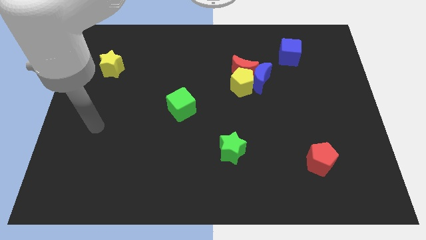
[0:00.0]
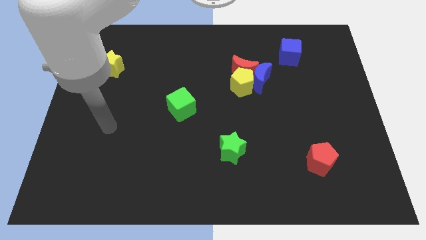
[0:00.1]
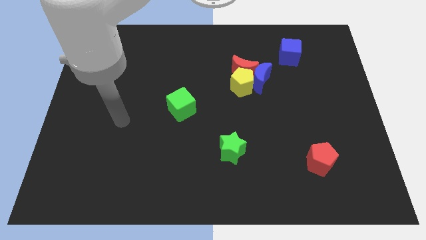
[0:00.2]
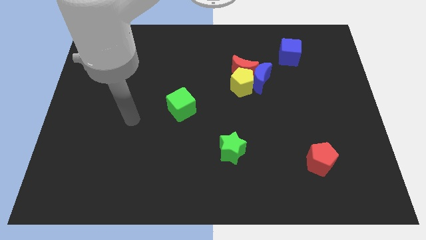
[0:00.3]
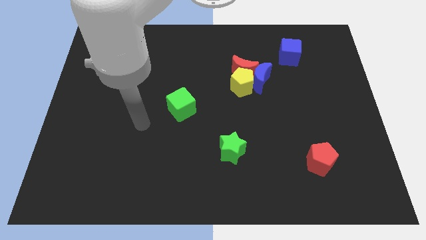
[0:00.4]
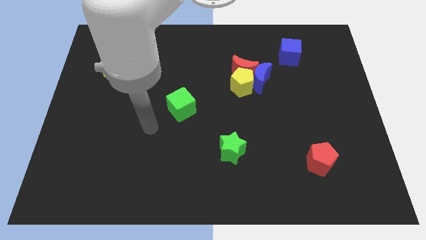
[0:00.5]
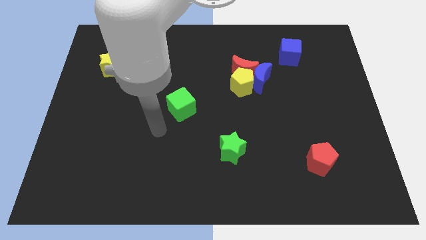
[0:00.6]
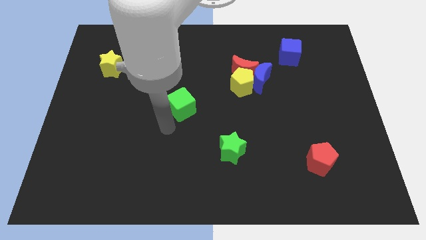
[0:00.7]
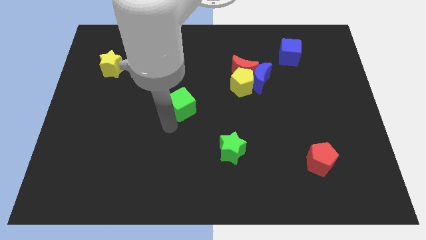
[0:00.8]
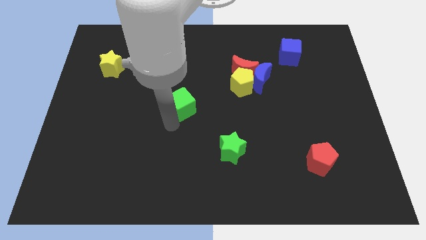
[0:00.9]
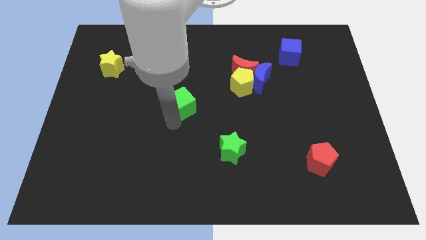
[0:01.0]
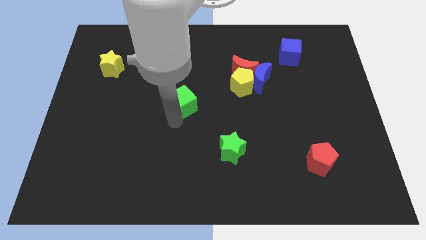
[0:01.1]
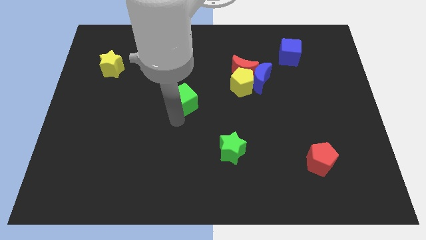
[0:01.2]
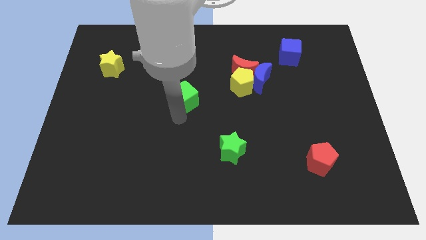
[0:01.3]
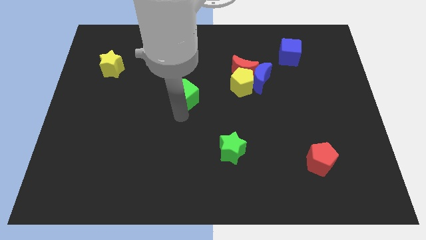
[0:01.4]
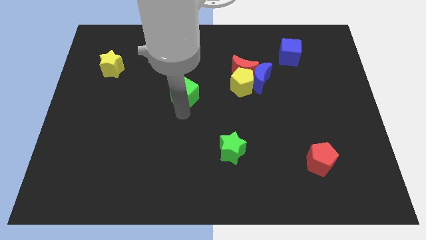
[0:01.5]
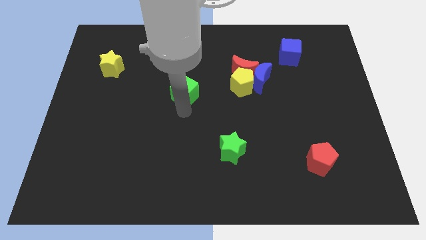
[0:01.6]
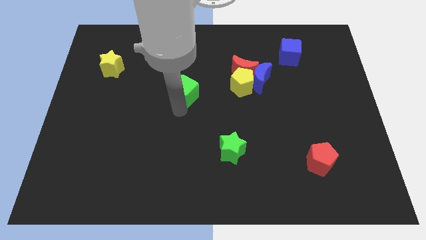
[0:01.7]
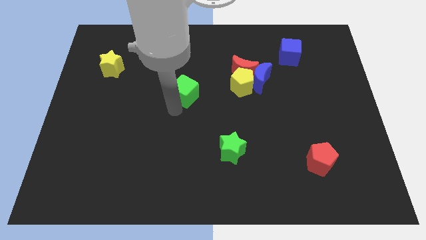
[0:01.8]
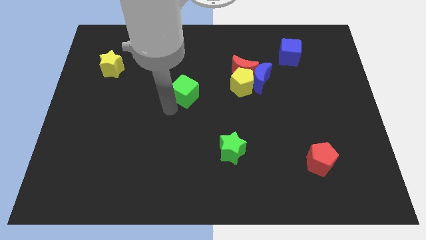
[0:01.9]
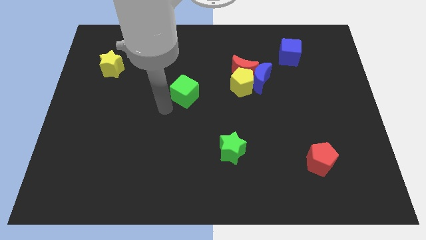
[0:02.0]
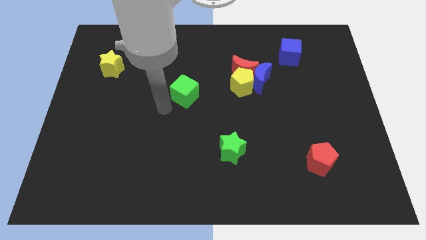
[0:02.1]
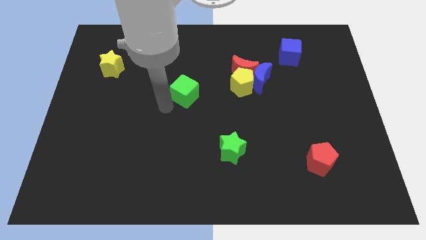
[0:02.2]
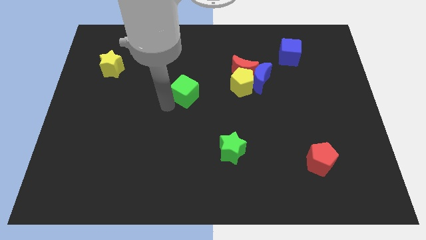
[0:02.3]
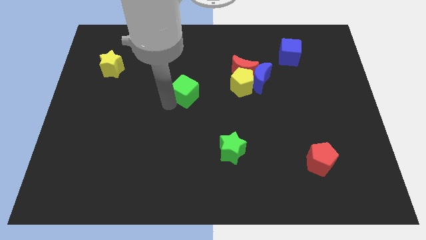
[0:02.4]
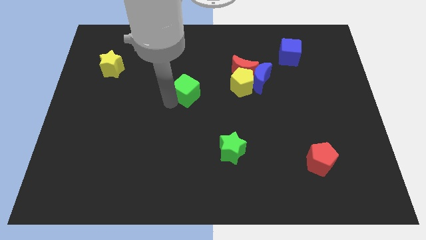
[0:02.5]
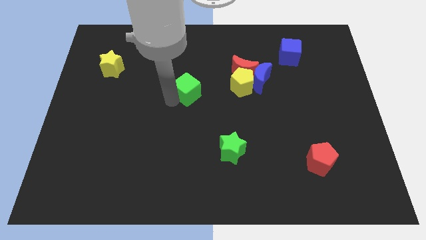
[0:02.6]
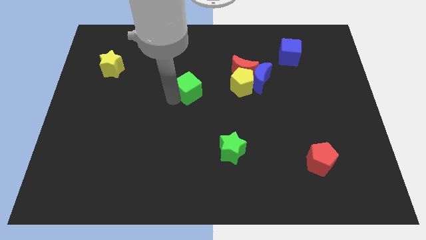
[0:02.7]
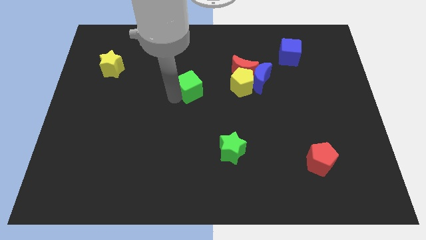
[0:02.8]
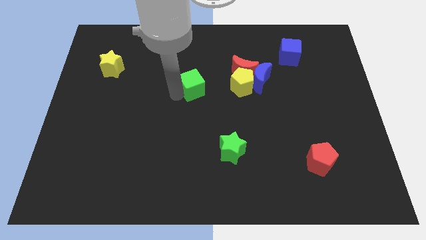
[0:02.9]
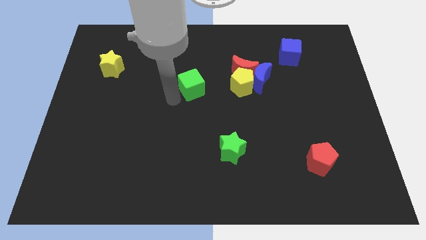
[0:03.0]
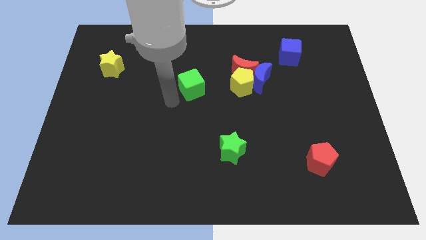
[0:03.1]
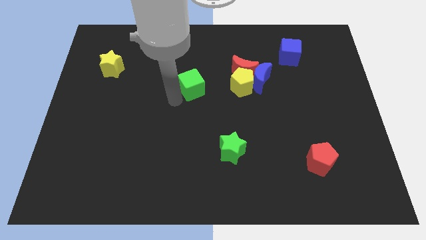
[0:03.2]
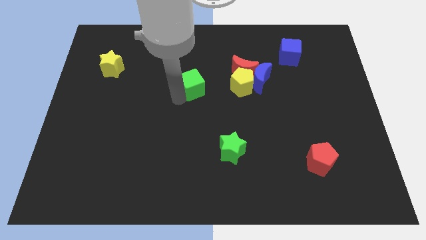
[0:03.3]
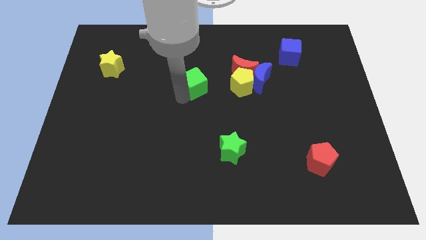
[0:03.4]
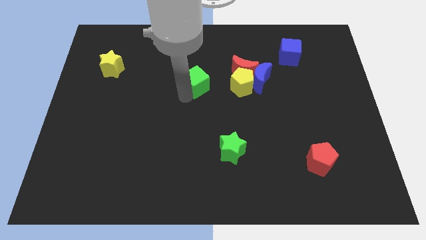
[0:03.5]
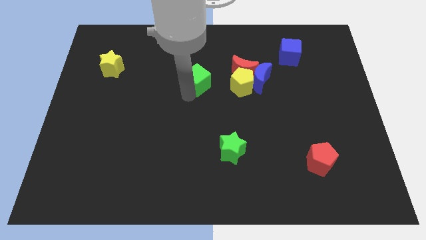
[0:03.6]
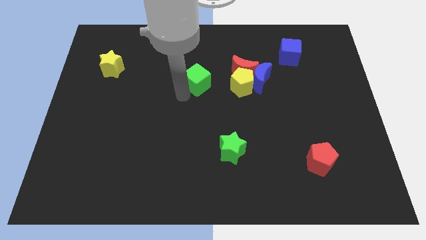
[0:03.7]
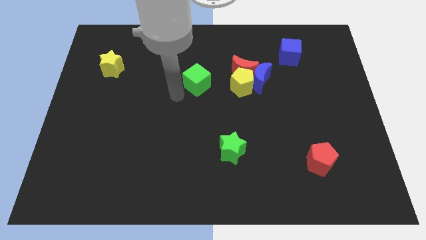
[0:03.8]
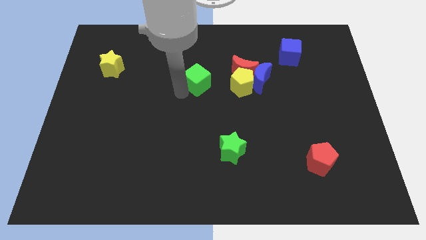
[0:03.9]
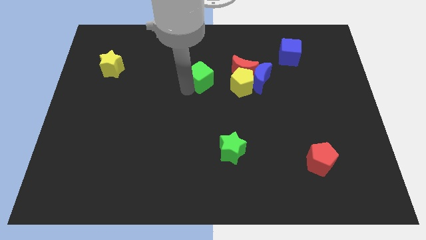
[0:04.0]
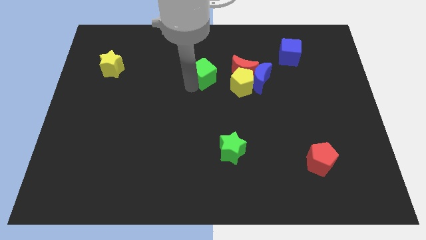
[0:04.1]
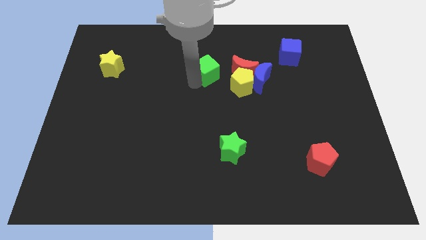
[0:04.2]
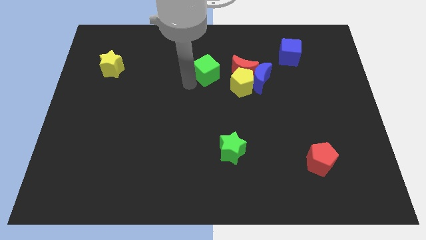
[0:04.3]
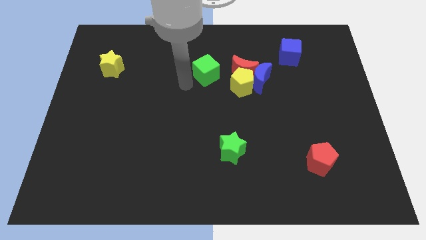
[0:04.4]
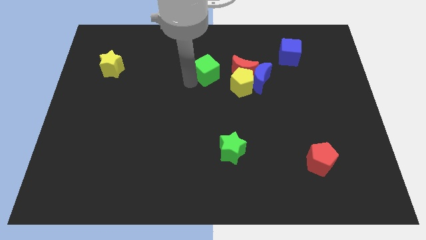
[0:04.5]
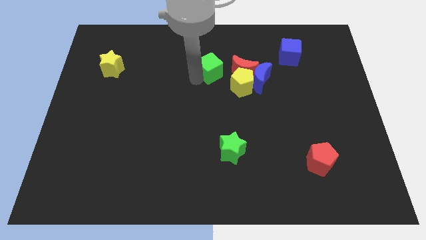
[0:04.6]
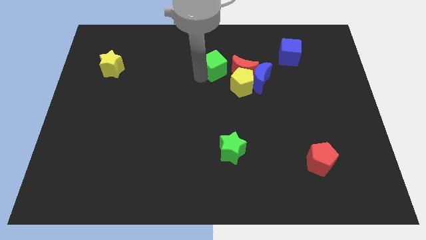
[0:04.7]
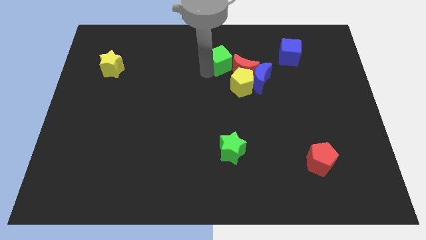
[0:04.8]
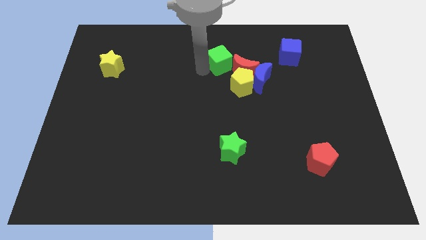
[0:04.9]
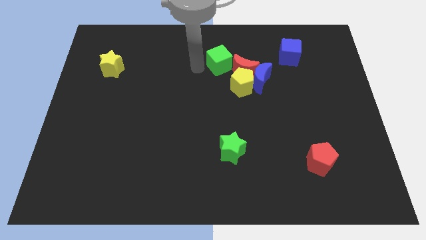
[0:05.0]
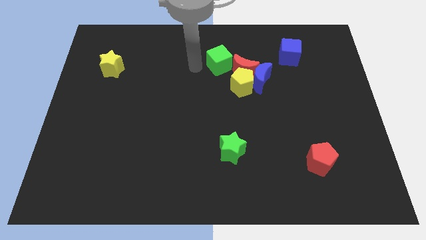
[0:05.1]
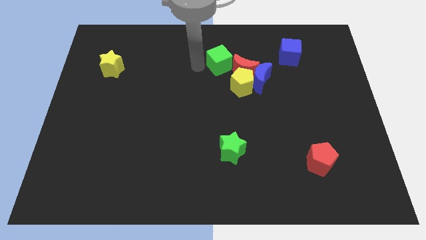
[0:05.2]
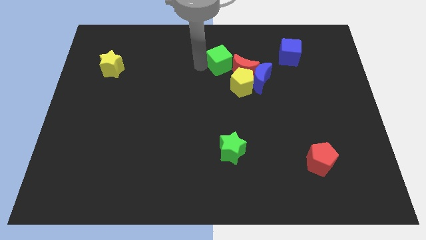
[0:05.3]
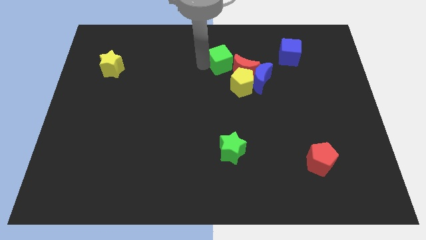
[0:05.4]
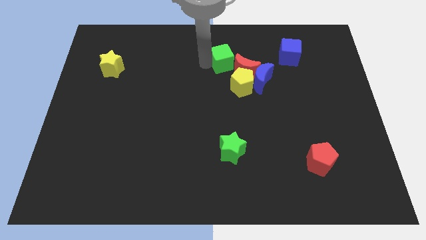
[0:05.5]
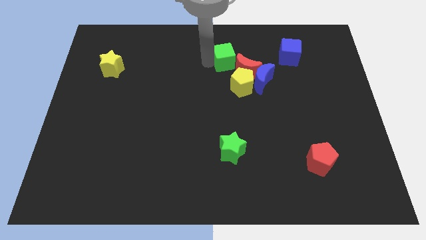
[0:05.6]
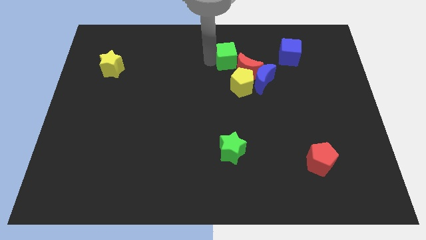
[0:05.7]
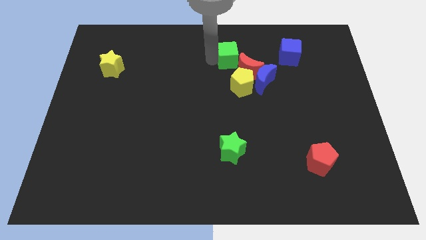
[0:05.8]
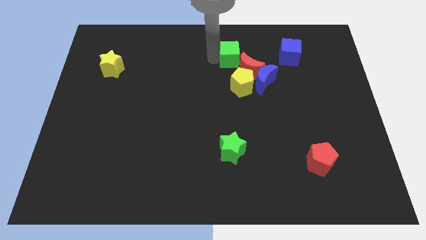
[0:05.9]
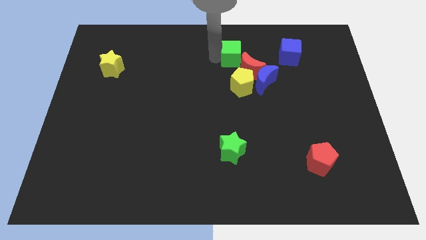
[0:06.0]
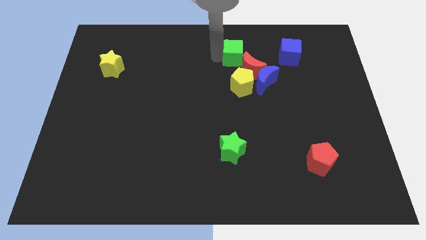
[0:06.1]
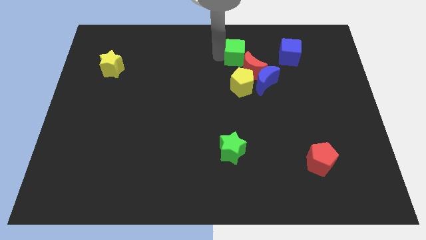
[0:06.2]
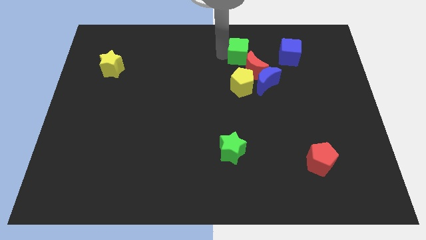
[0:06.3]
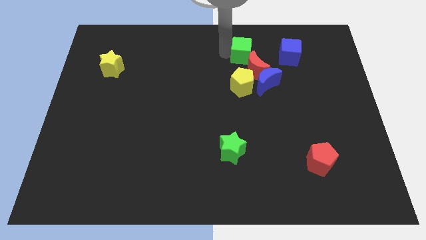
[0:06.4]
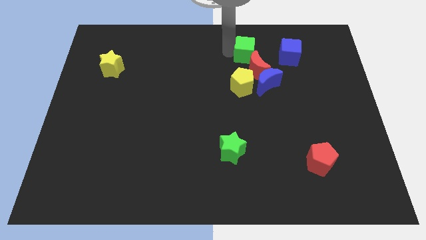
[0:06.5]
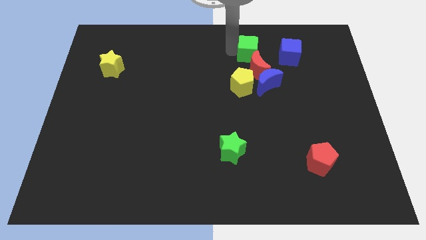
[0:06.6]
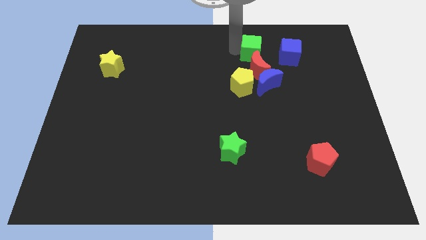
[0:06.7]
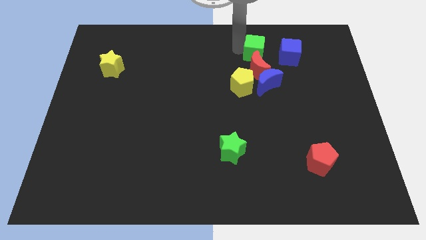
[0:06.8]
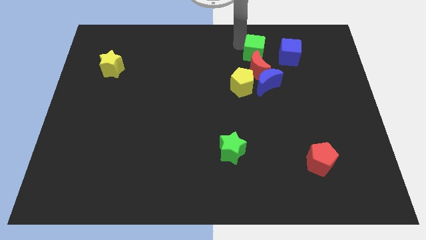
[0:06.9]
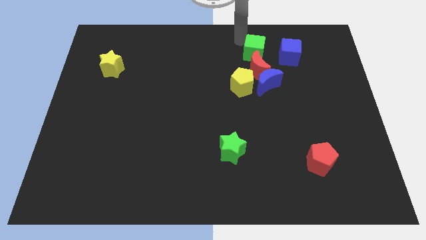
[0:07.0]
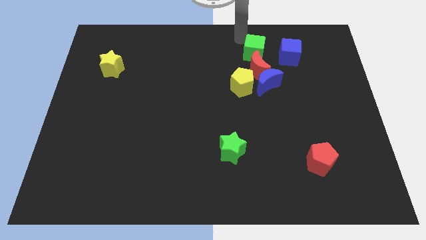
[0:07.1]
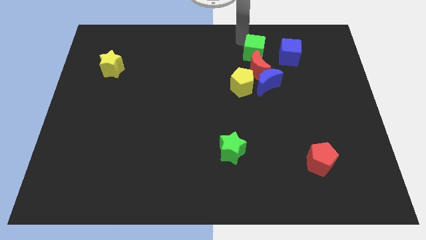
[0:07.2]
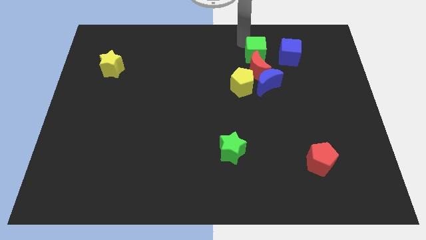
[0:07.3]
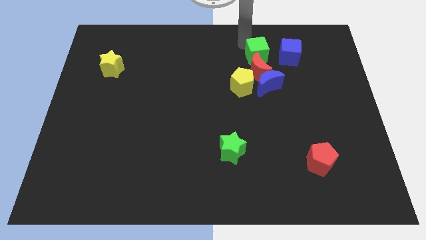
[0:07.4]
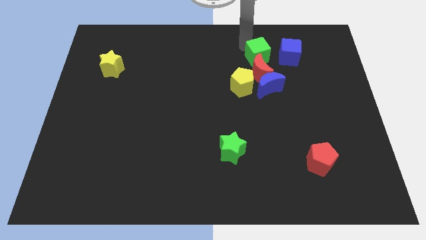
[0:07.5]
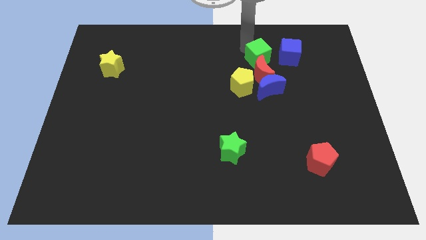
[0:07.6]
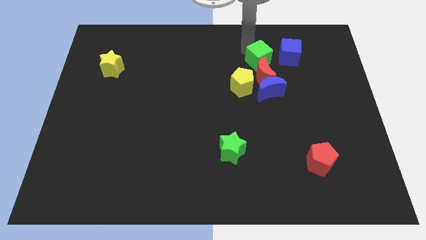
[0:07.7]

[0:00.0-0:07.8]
push the green cube to the bottom left of the blue cube

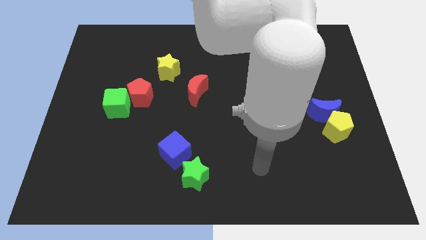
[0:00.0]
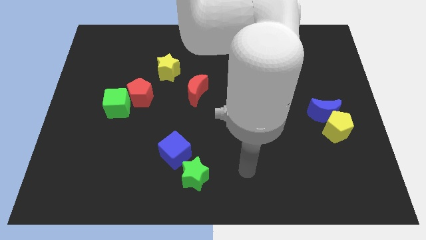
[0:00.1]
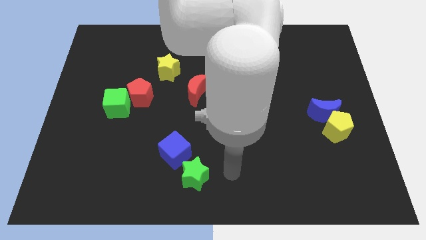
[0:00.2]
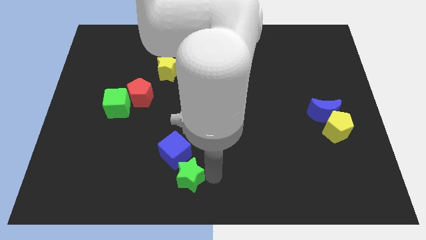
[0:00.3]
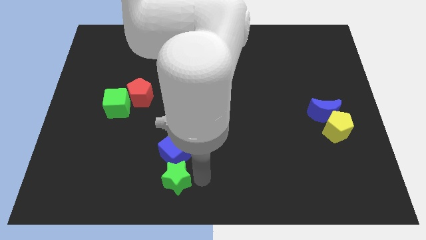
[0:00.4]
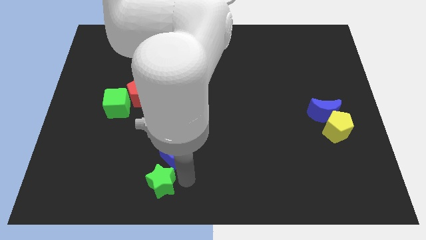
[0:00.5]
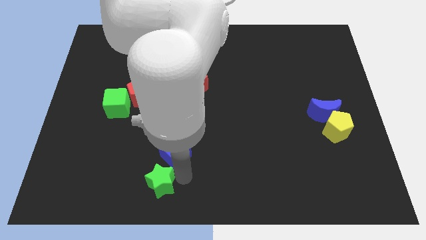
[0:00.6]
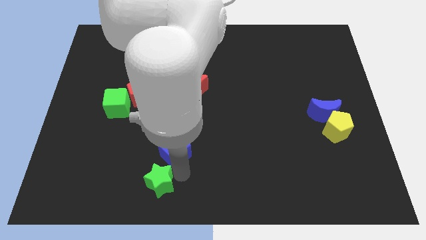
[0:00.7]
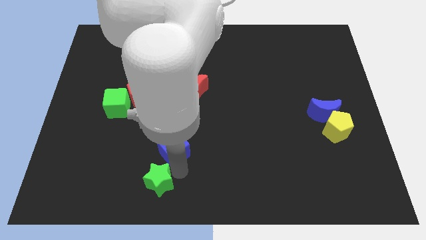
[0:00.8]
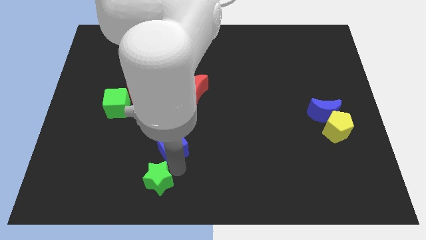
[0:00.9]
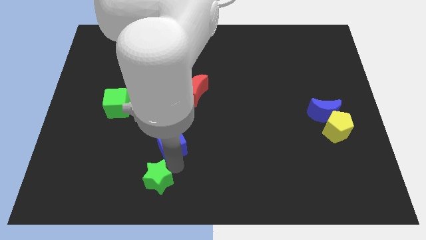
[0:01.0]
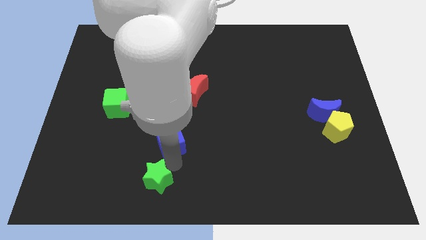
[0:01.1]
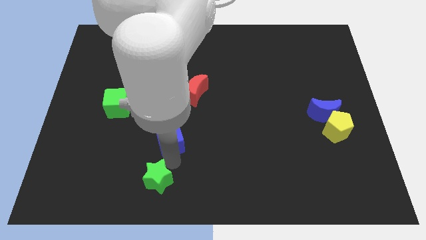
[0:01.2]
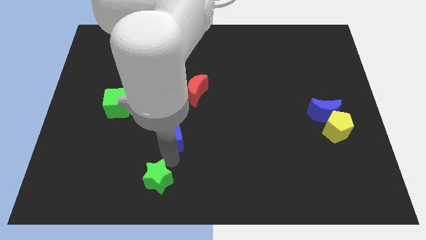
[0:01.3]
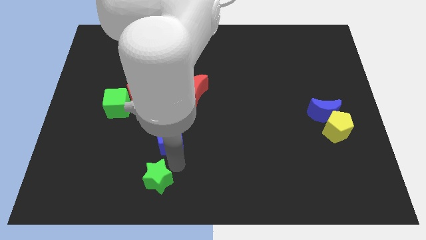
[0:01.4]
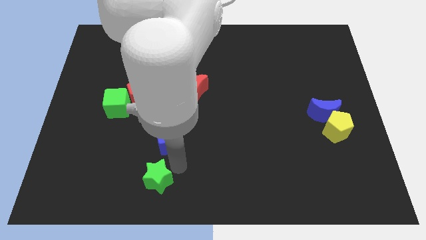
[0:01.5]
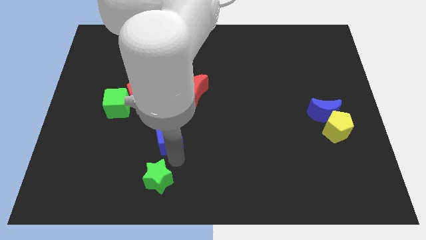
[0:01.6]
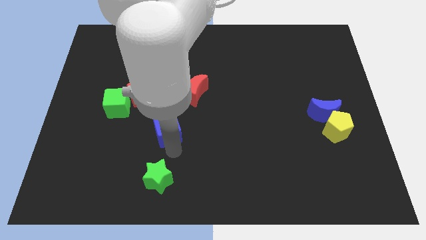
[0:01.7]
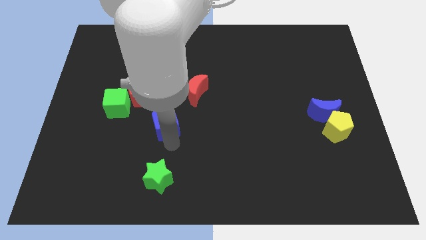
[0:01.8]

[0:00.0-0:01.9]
move the blue cube to the bottom right side of the red pentagon
